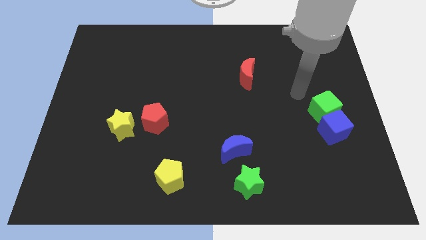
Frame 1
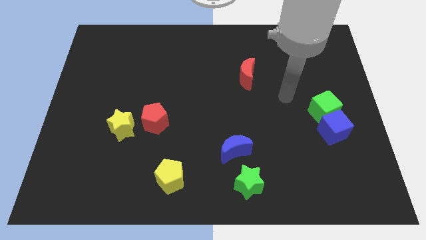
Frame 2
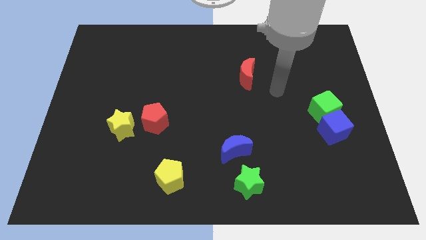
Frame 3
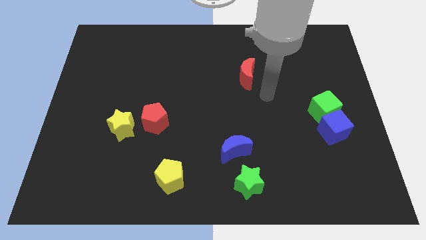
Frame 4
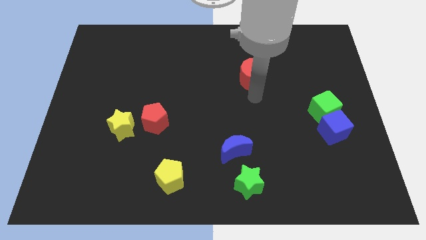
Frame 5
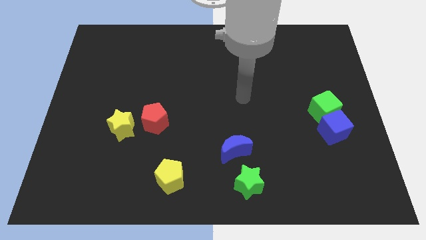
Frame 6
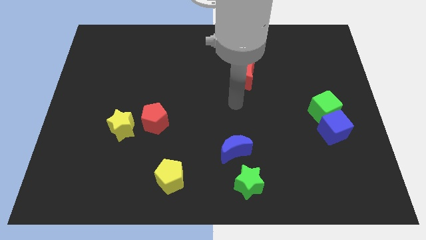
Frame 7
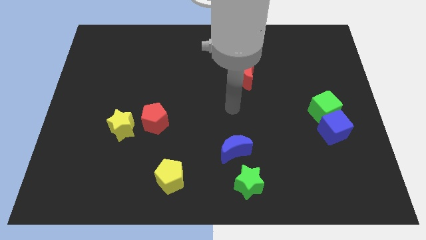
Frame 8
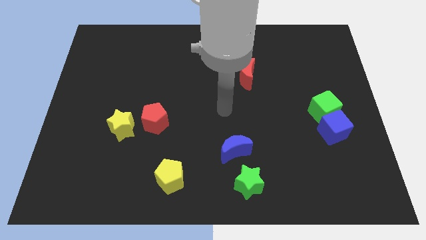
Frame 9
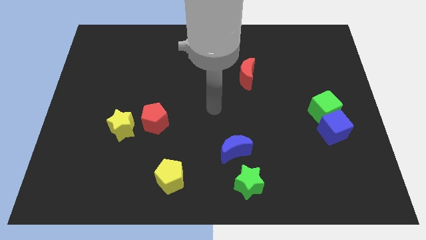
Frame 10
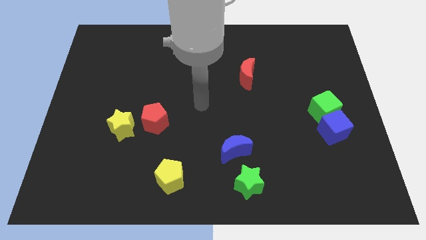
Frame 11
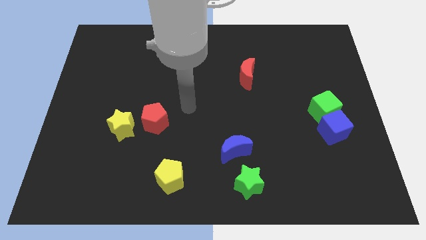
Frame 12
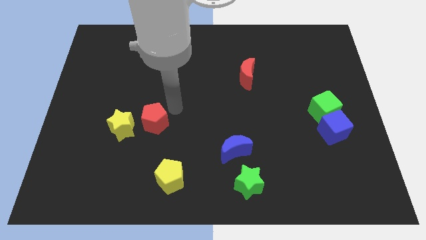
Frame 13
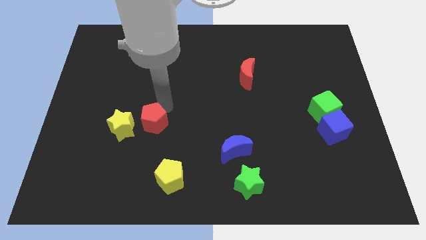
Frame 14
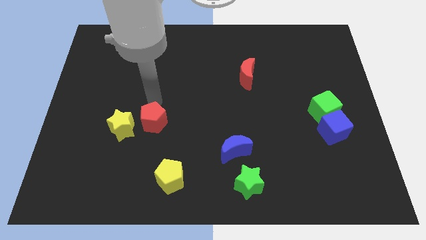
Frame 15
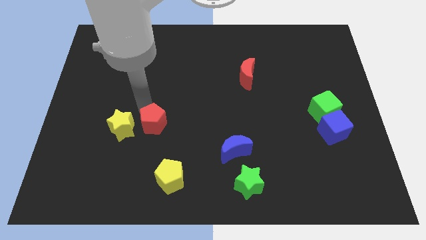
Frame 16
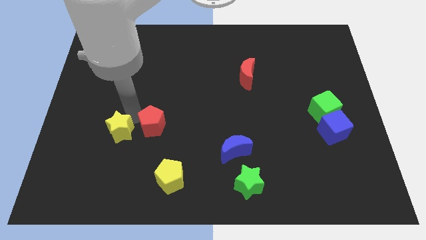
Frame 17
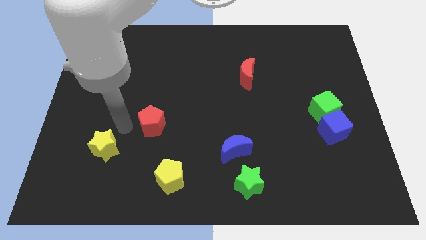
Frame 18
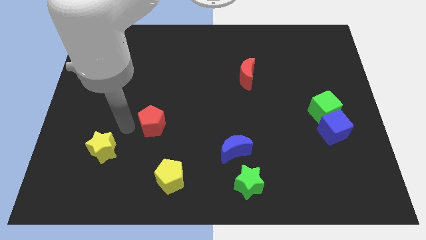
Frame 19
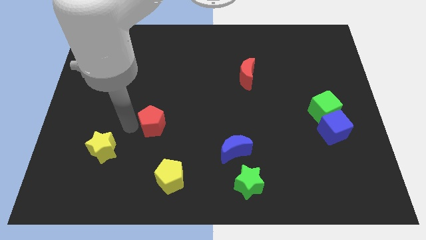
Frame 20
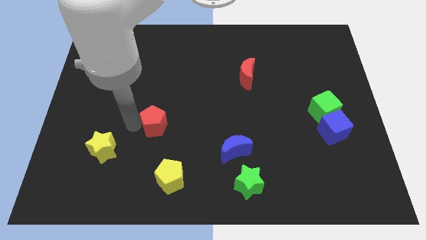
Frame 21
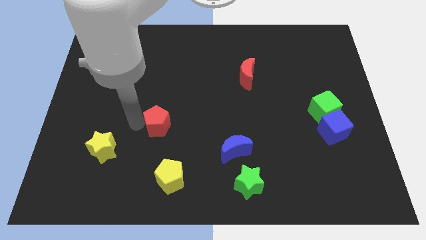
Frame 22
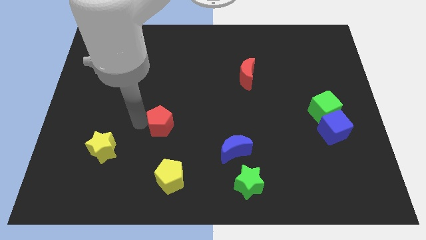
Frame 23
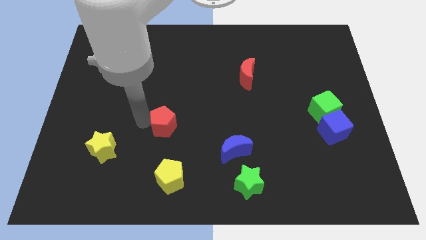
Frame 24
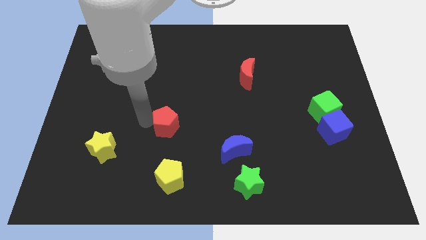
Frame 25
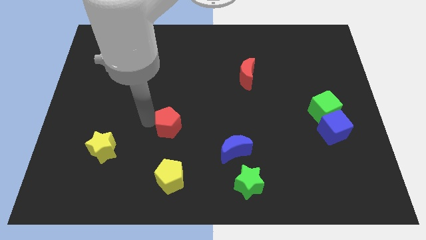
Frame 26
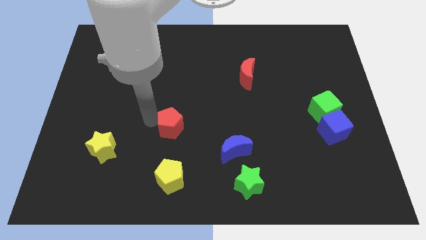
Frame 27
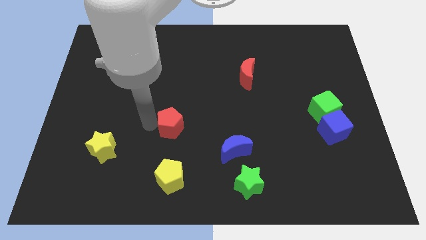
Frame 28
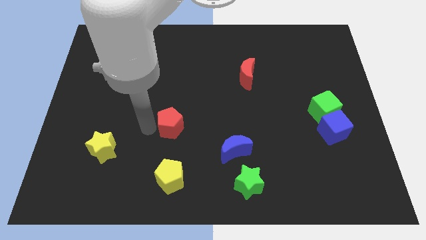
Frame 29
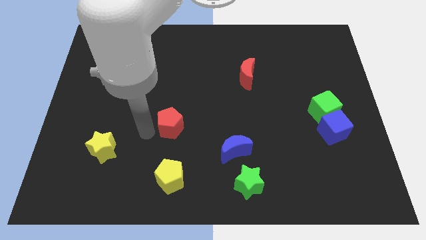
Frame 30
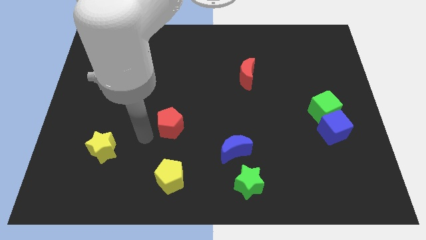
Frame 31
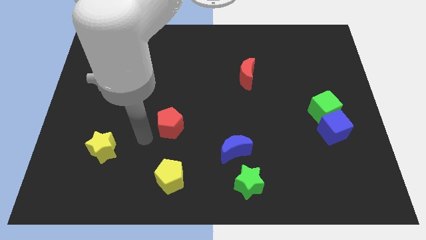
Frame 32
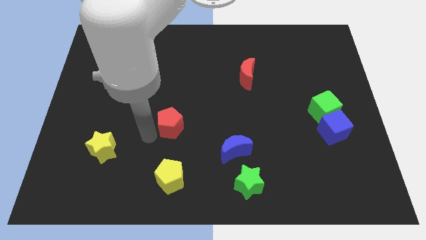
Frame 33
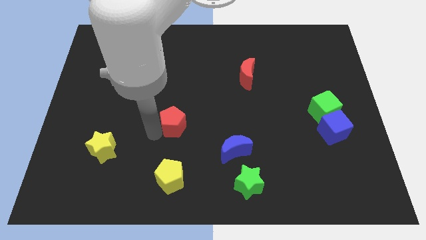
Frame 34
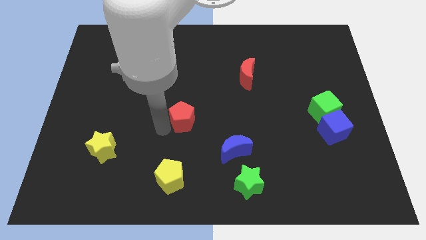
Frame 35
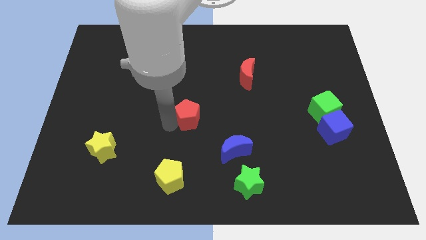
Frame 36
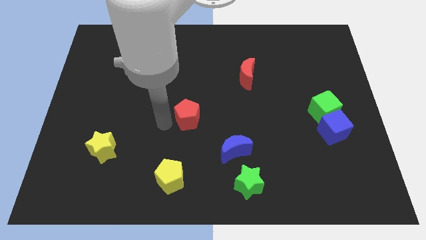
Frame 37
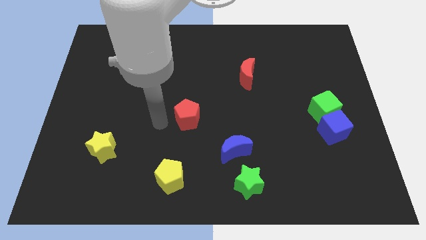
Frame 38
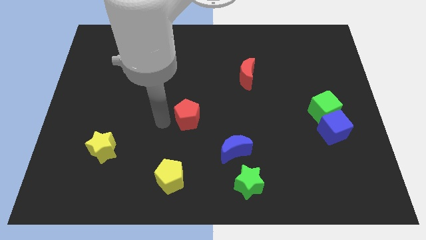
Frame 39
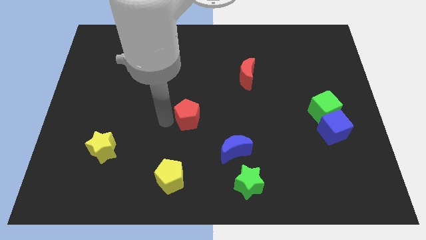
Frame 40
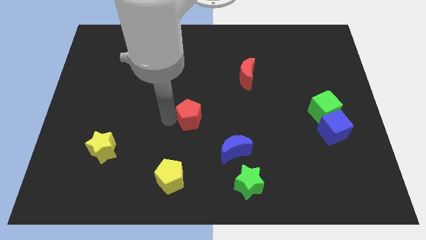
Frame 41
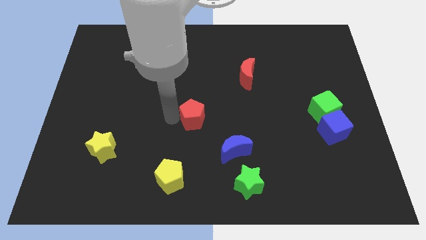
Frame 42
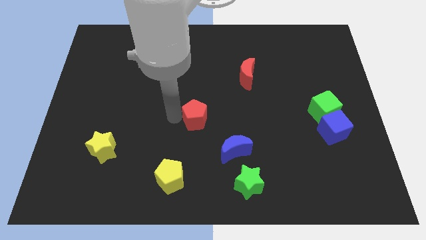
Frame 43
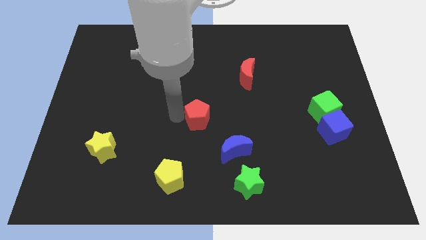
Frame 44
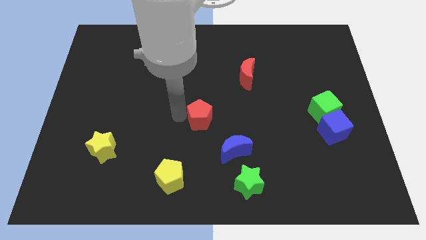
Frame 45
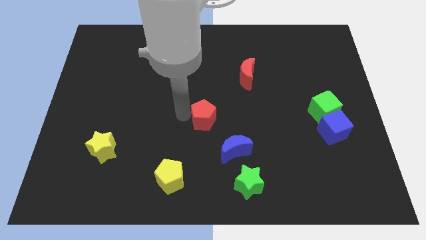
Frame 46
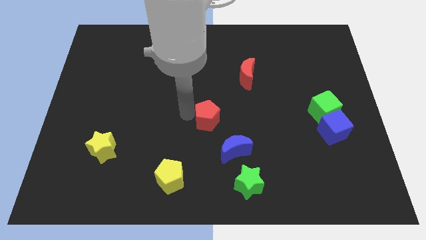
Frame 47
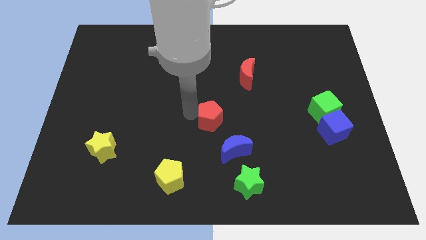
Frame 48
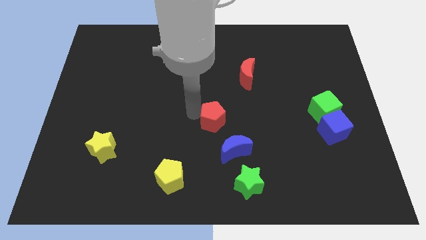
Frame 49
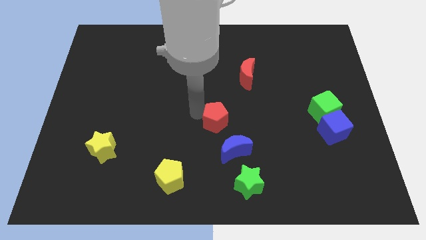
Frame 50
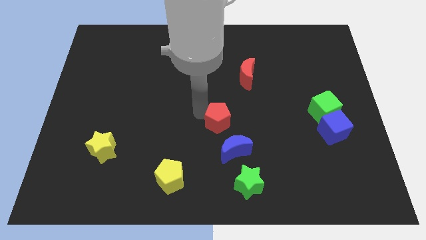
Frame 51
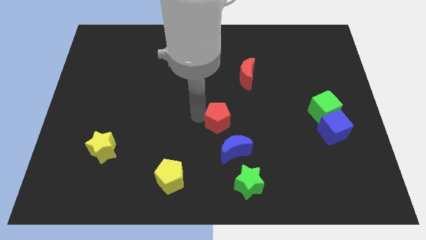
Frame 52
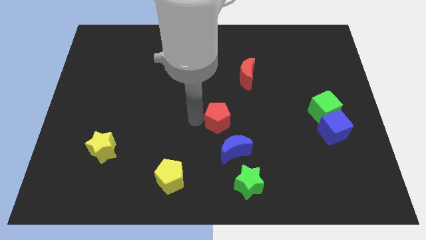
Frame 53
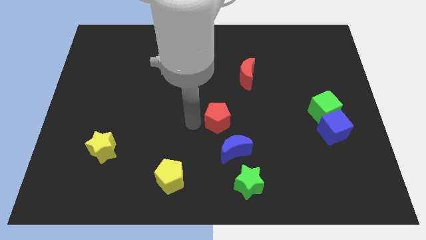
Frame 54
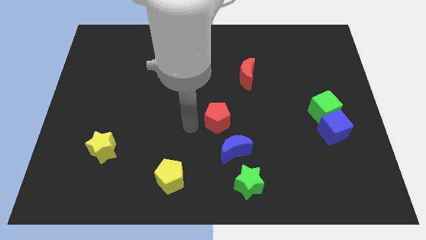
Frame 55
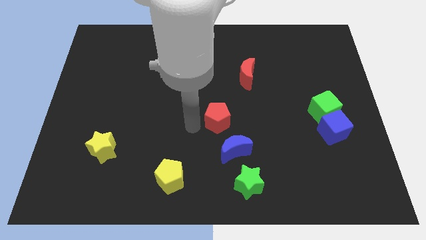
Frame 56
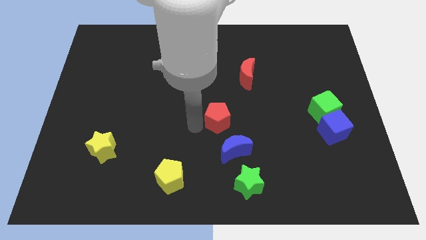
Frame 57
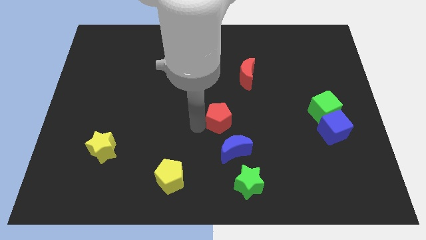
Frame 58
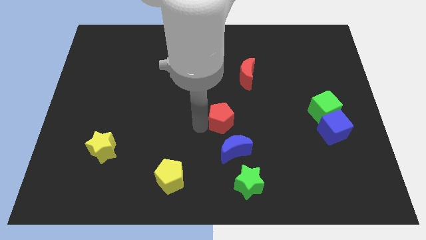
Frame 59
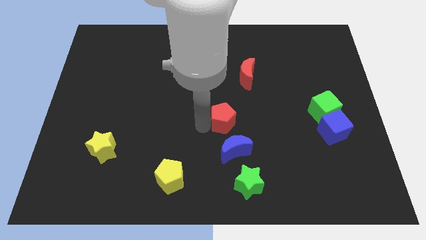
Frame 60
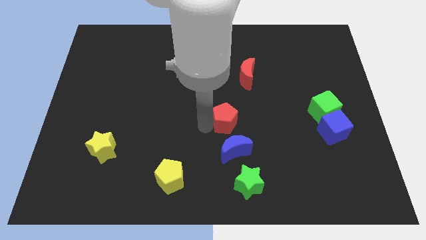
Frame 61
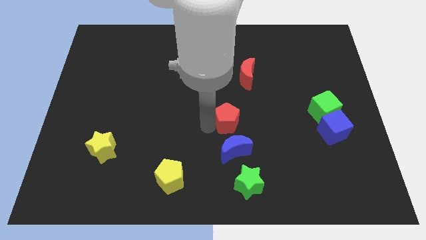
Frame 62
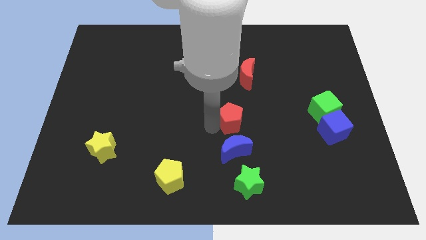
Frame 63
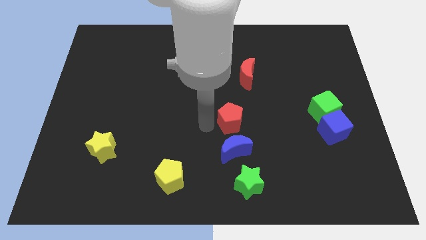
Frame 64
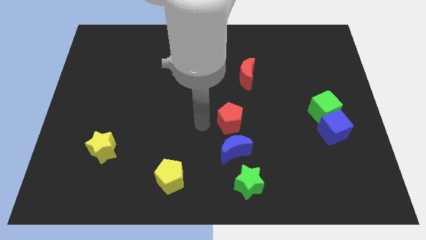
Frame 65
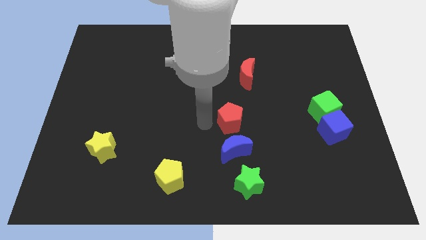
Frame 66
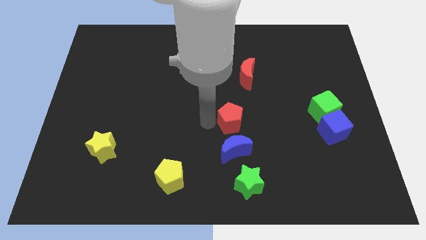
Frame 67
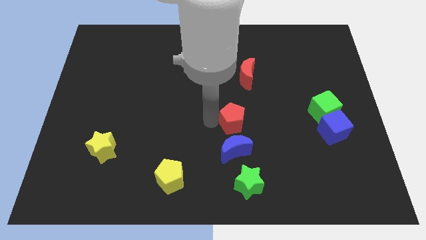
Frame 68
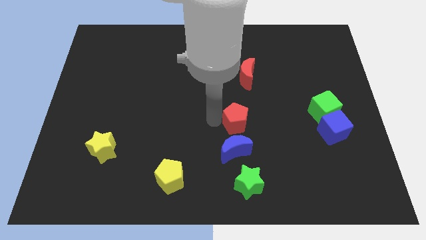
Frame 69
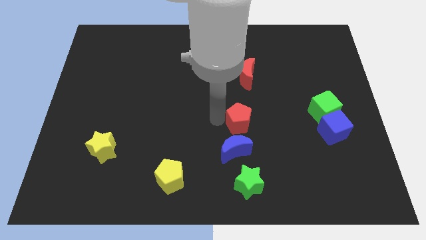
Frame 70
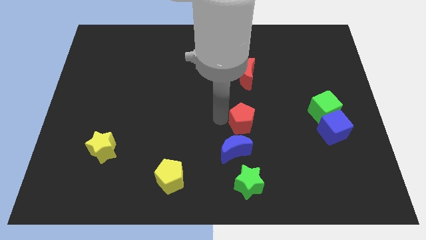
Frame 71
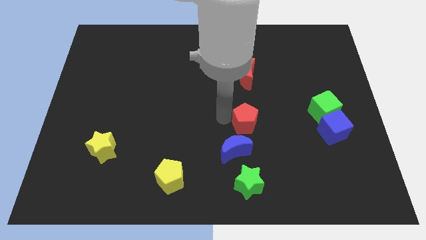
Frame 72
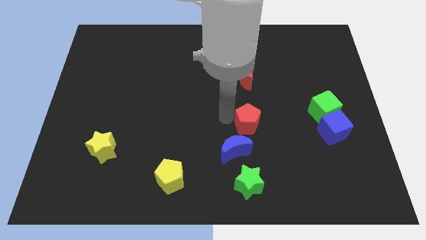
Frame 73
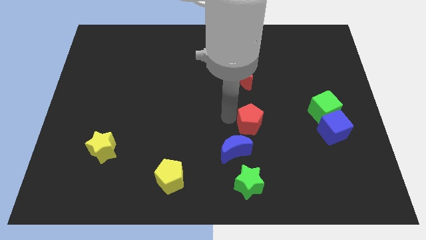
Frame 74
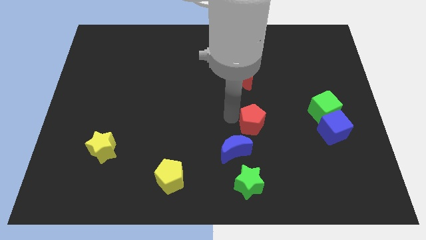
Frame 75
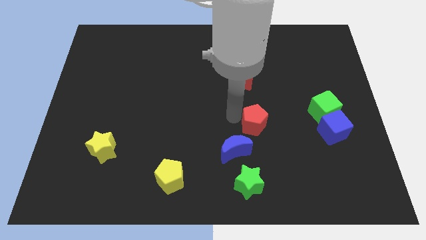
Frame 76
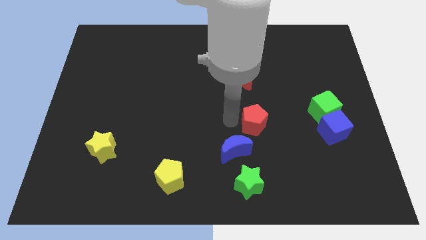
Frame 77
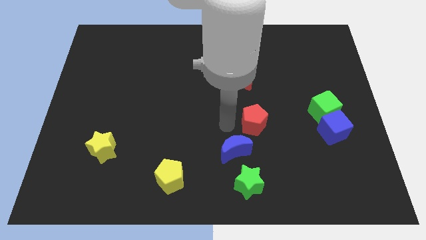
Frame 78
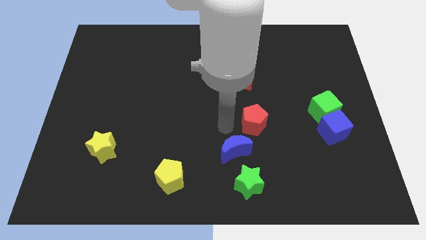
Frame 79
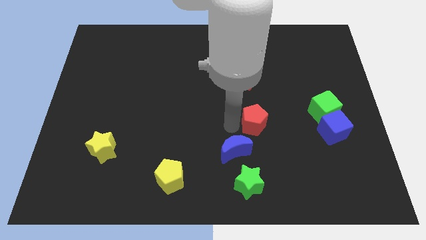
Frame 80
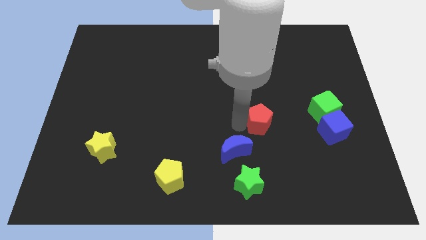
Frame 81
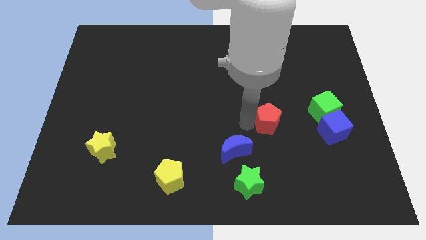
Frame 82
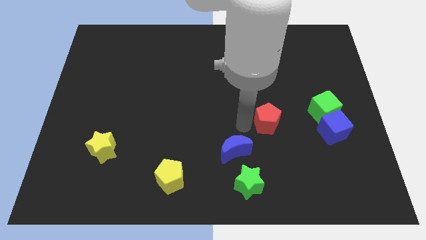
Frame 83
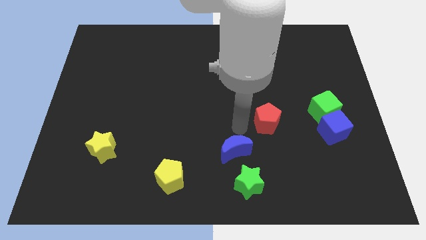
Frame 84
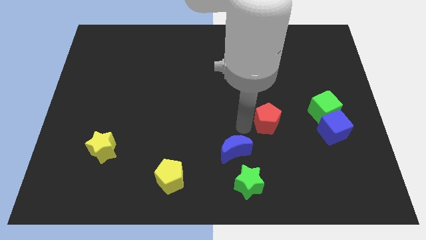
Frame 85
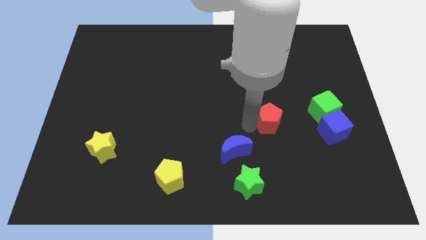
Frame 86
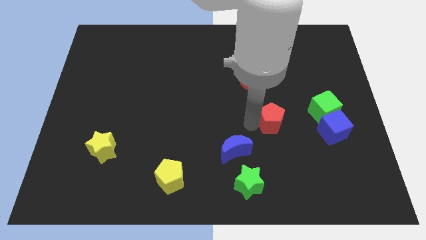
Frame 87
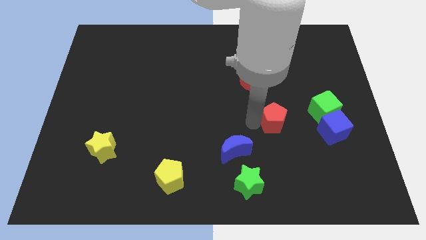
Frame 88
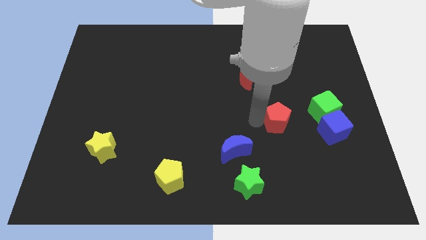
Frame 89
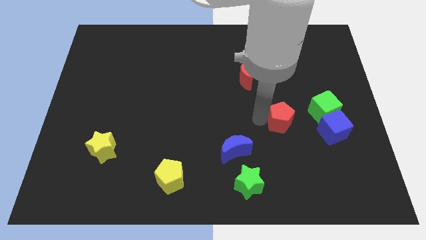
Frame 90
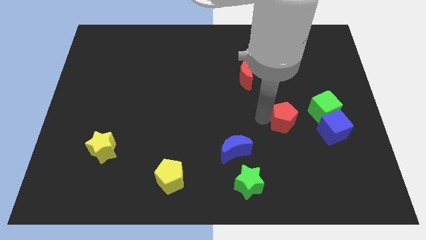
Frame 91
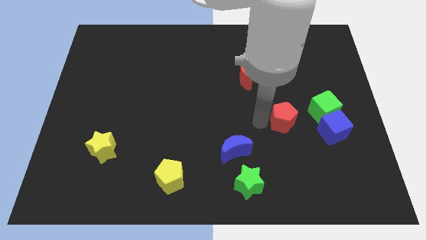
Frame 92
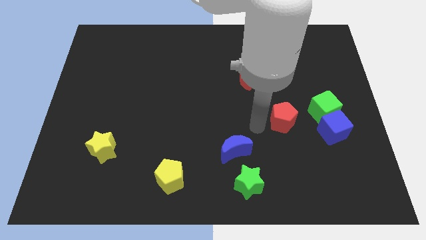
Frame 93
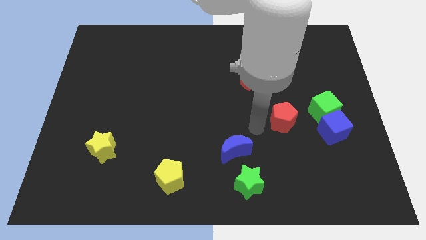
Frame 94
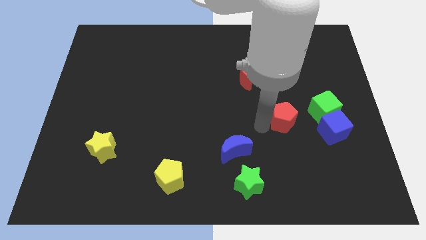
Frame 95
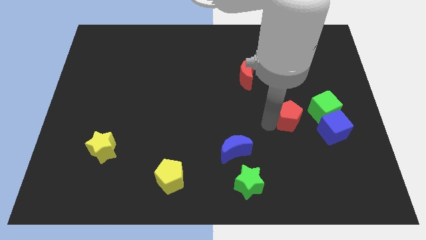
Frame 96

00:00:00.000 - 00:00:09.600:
put the red pentagon diagonally up and to the left of the blue cube
